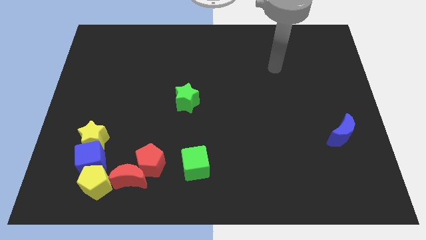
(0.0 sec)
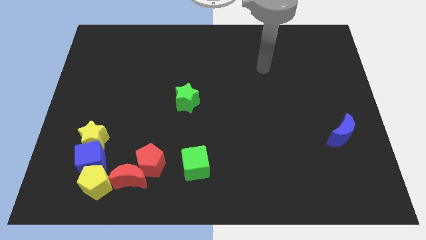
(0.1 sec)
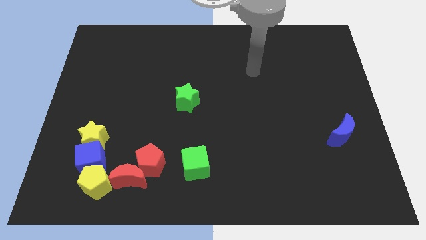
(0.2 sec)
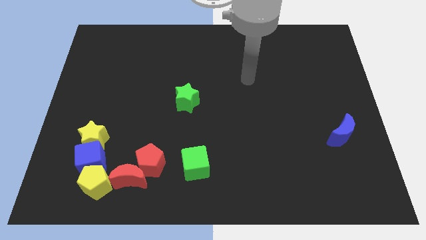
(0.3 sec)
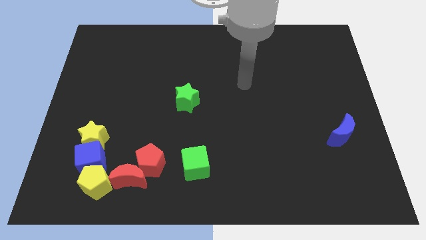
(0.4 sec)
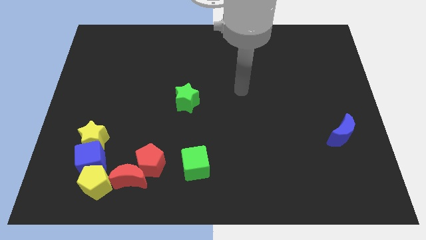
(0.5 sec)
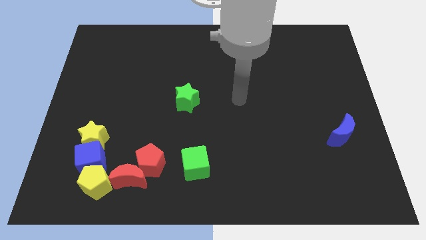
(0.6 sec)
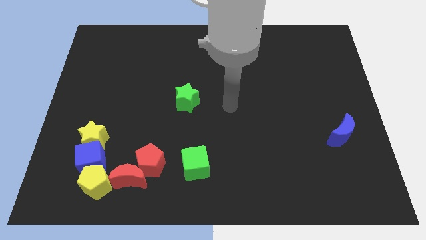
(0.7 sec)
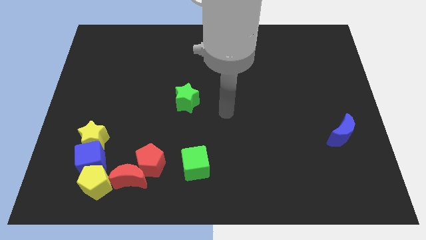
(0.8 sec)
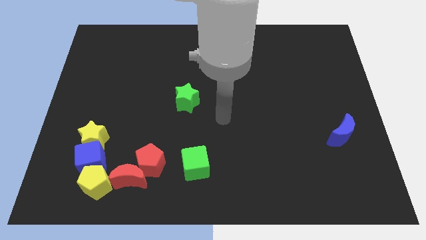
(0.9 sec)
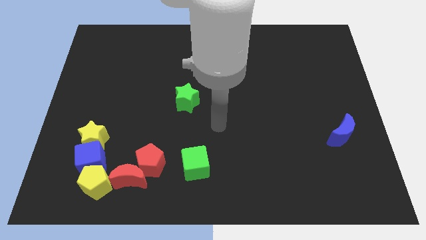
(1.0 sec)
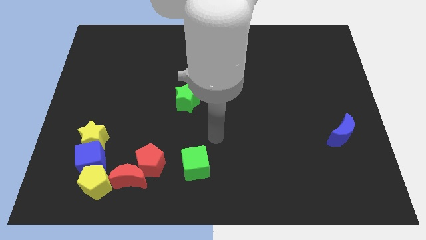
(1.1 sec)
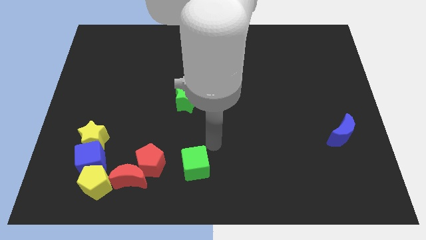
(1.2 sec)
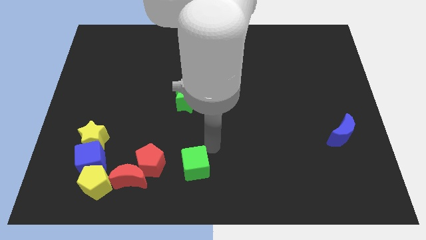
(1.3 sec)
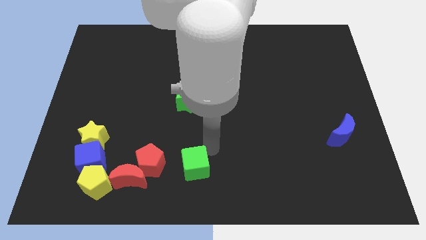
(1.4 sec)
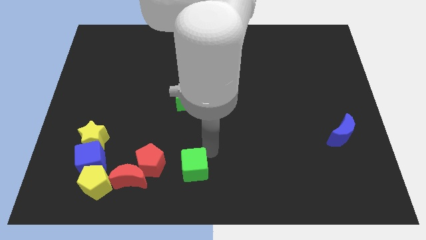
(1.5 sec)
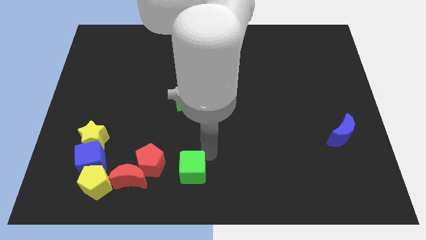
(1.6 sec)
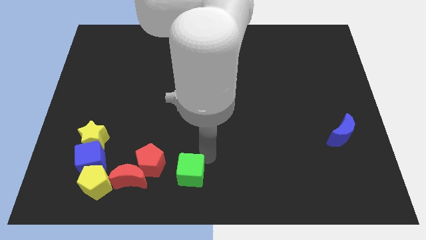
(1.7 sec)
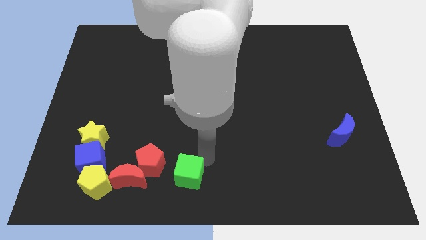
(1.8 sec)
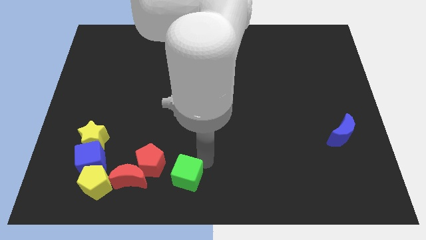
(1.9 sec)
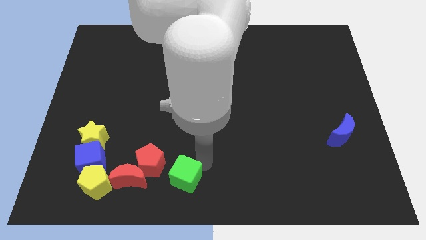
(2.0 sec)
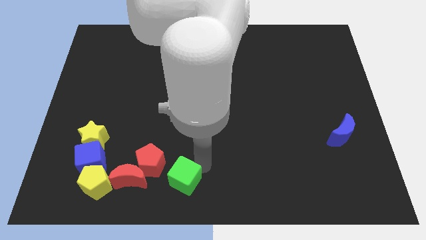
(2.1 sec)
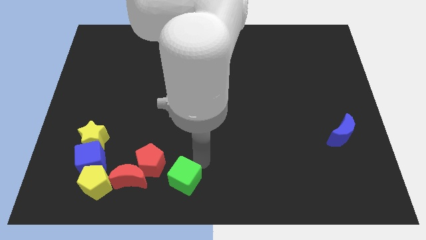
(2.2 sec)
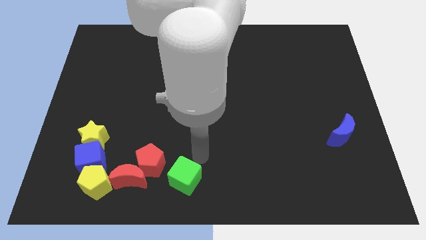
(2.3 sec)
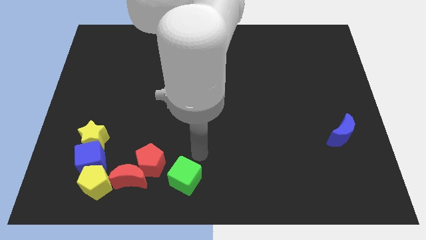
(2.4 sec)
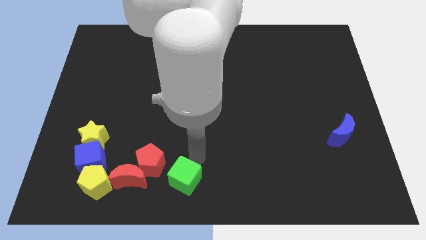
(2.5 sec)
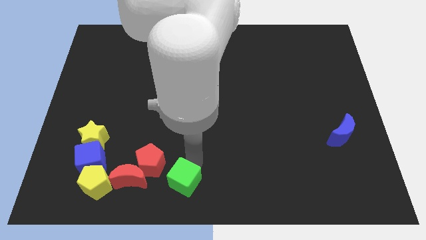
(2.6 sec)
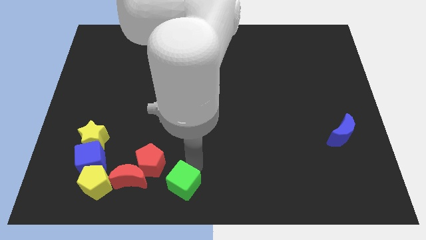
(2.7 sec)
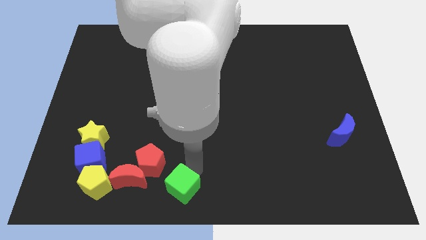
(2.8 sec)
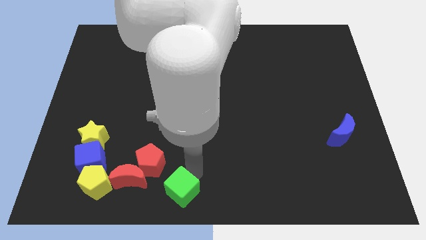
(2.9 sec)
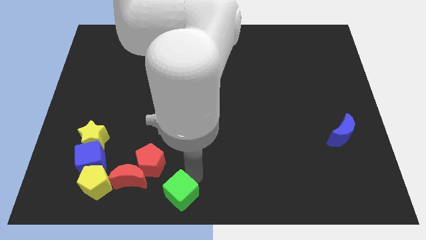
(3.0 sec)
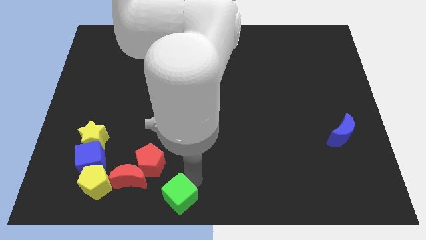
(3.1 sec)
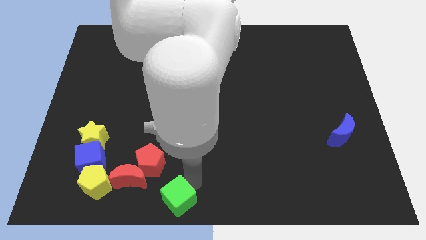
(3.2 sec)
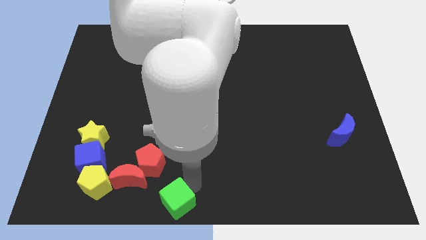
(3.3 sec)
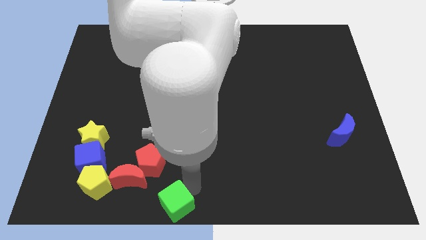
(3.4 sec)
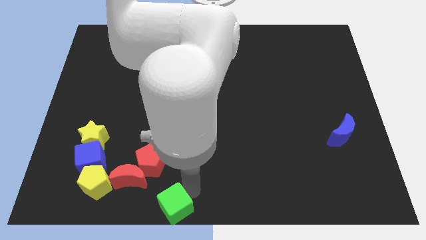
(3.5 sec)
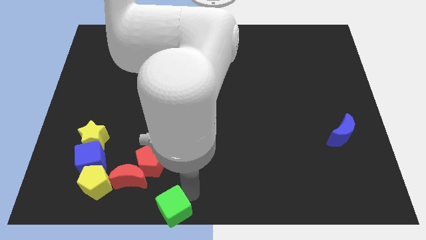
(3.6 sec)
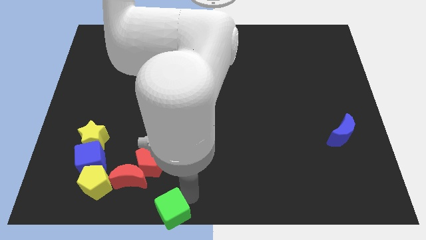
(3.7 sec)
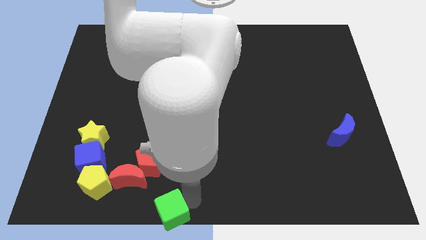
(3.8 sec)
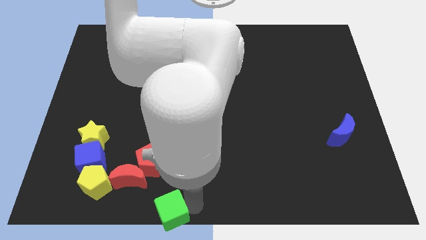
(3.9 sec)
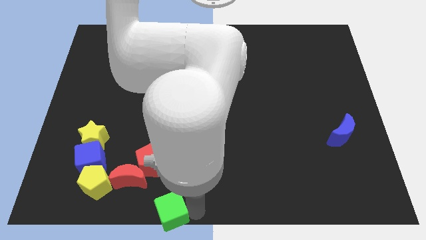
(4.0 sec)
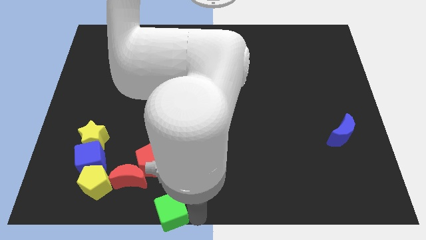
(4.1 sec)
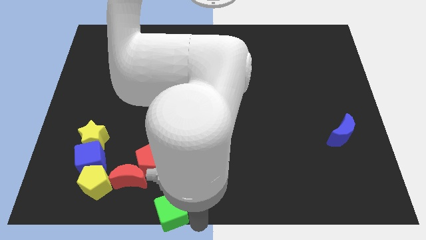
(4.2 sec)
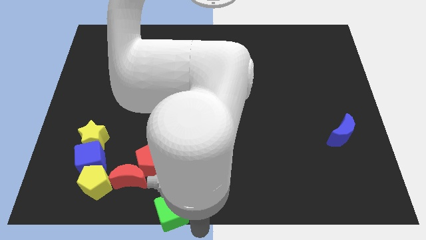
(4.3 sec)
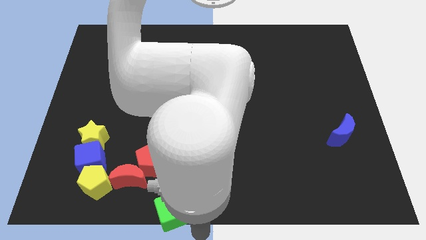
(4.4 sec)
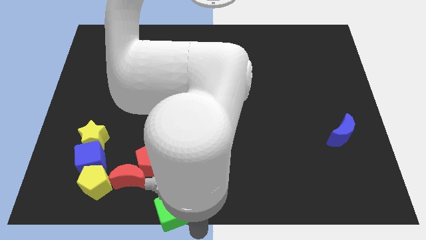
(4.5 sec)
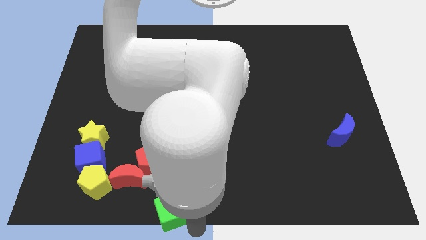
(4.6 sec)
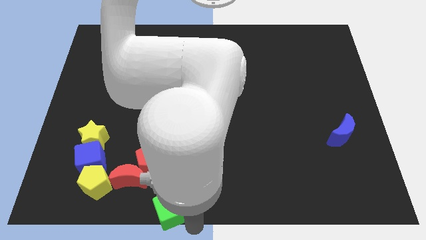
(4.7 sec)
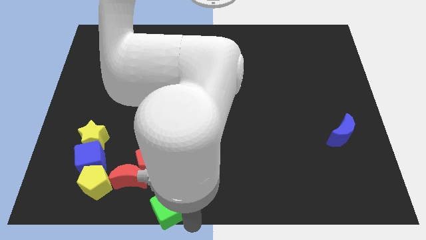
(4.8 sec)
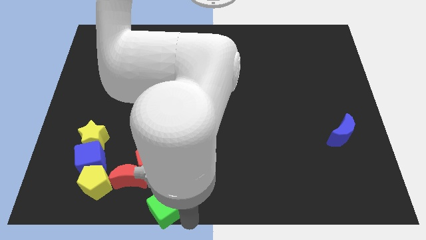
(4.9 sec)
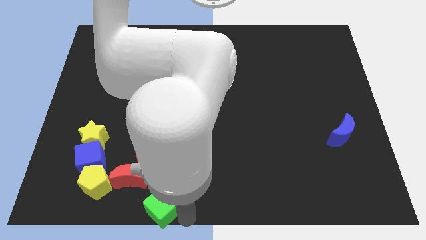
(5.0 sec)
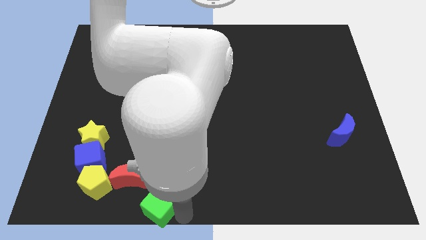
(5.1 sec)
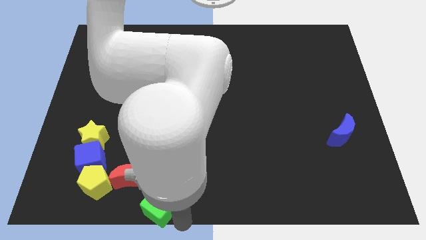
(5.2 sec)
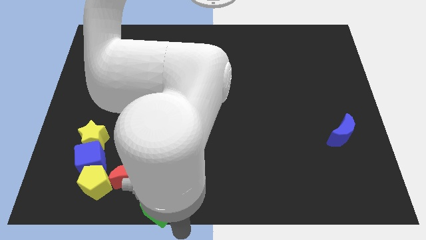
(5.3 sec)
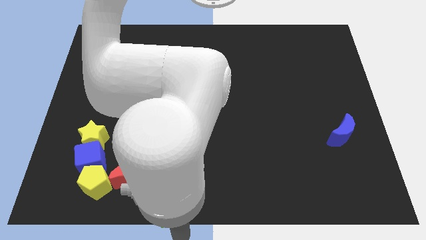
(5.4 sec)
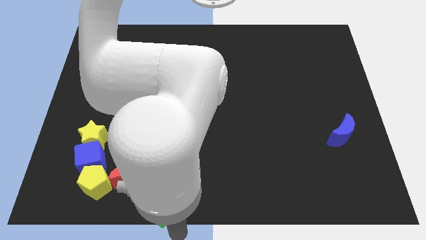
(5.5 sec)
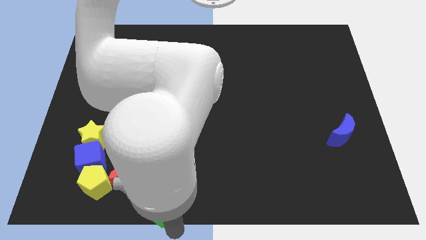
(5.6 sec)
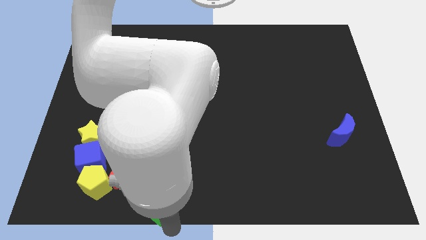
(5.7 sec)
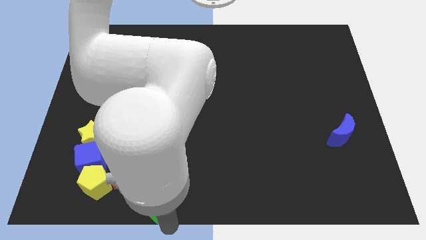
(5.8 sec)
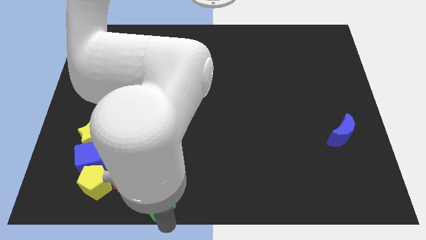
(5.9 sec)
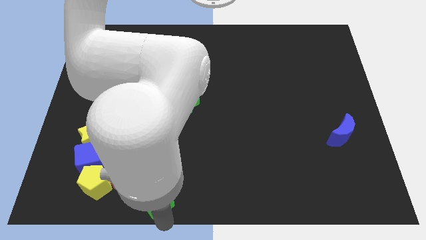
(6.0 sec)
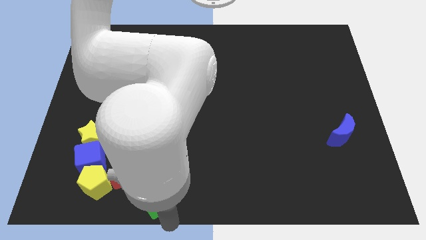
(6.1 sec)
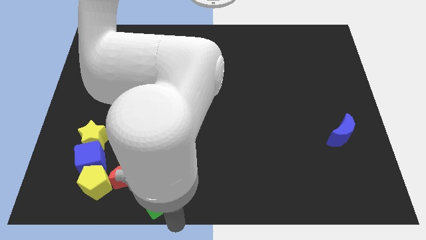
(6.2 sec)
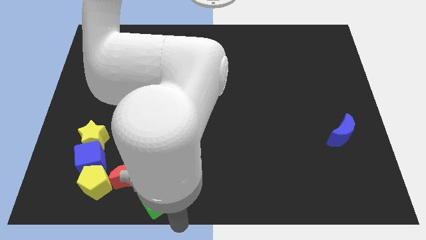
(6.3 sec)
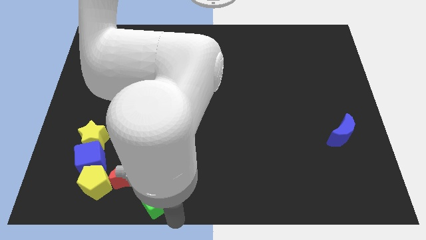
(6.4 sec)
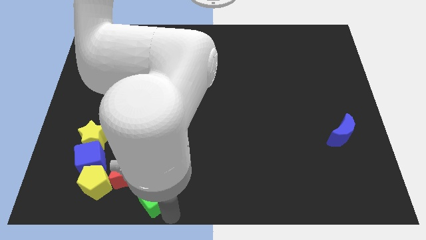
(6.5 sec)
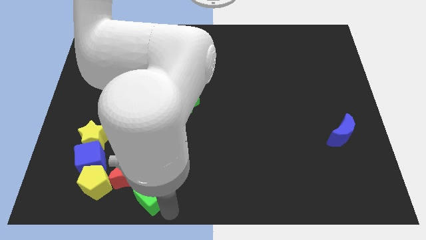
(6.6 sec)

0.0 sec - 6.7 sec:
move the green cube next to the red moon

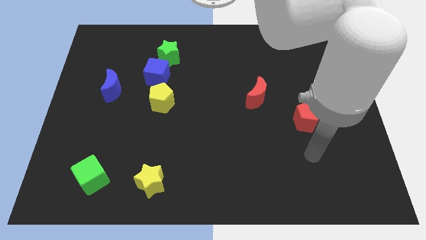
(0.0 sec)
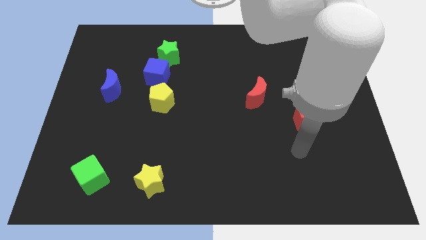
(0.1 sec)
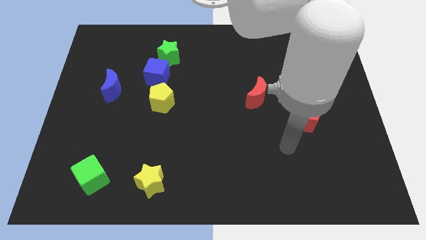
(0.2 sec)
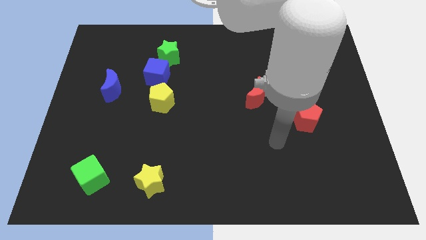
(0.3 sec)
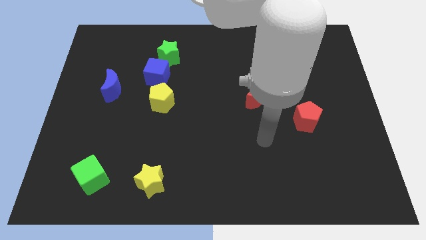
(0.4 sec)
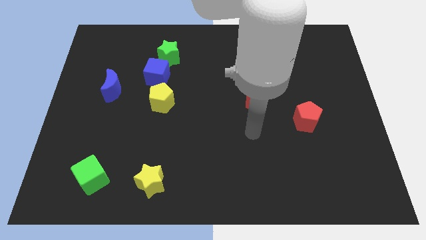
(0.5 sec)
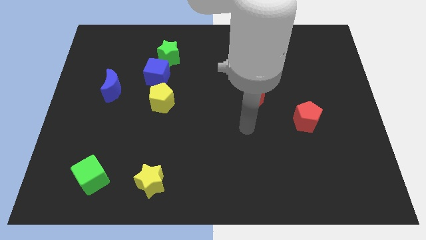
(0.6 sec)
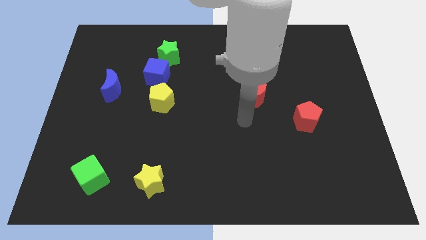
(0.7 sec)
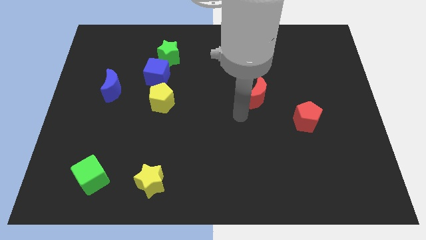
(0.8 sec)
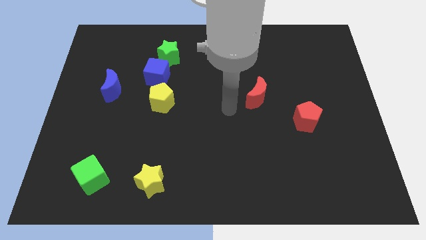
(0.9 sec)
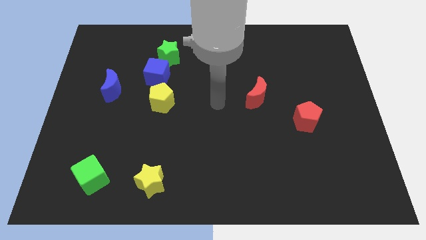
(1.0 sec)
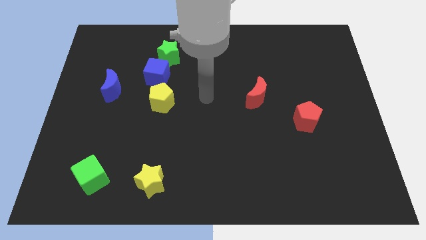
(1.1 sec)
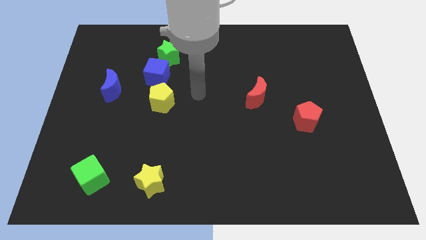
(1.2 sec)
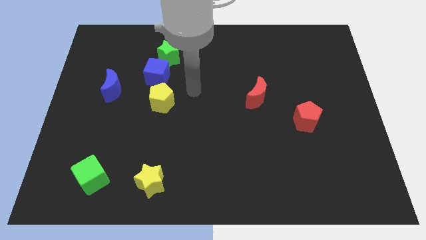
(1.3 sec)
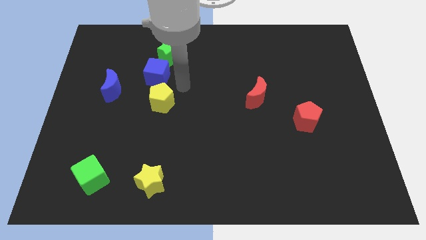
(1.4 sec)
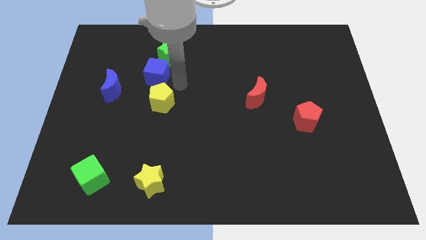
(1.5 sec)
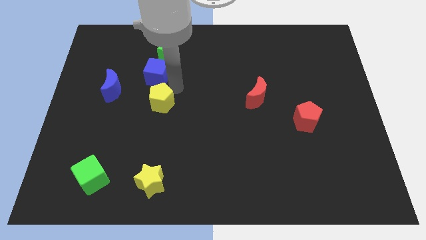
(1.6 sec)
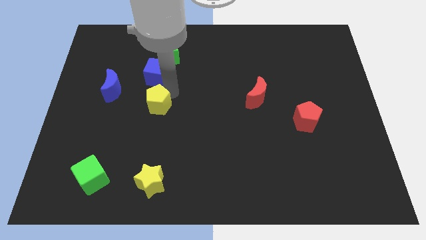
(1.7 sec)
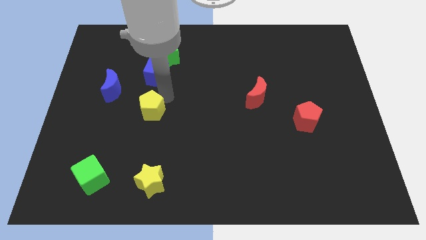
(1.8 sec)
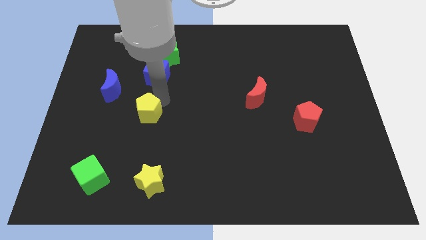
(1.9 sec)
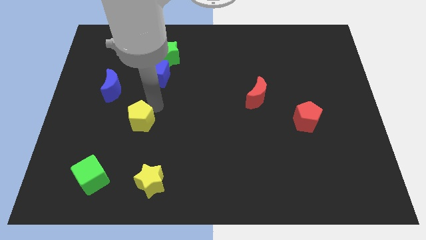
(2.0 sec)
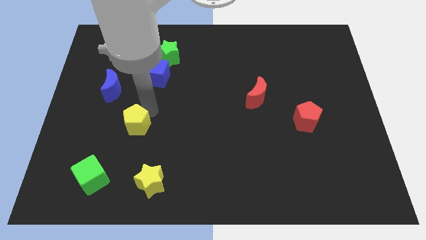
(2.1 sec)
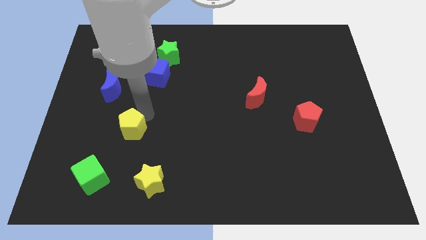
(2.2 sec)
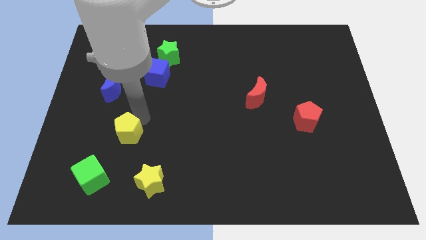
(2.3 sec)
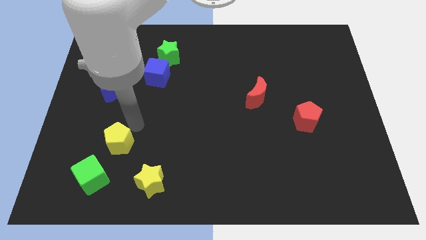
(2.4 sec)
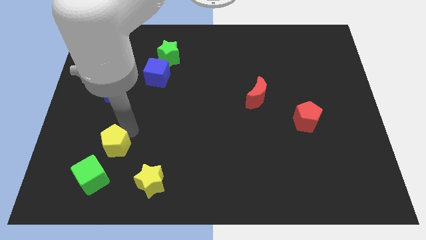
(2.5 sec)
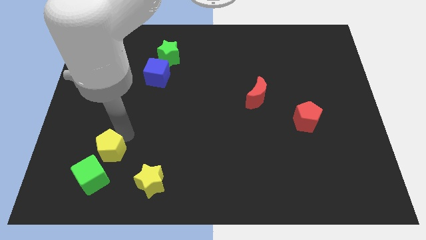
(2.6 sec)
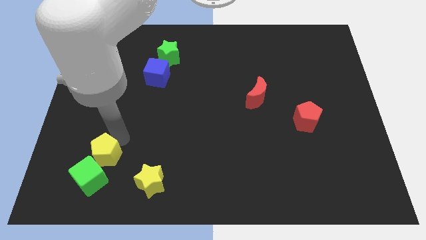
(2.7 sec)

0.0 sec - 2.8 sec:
move the yellow pentagon close to the green cube
